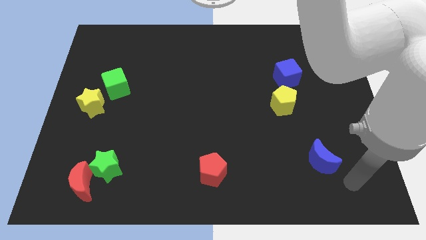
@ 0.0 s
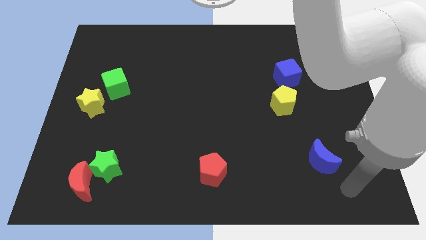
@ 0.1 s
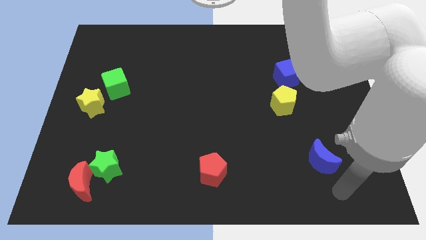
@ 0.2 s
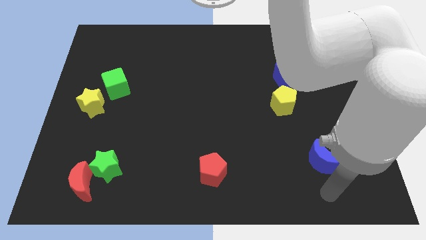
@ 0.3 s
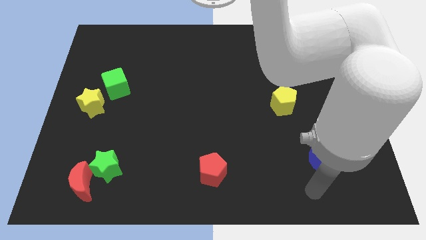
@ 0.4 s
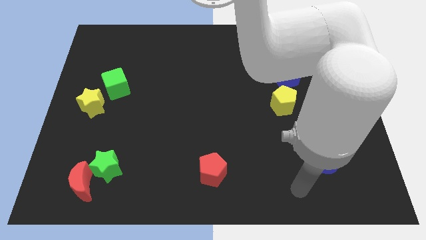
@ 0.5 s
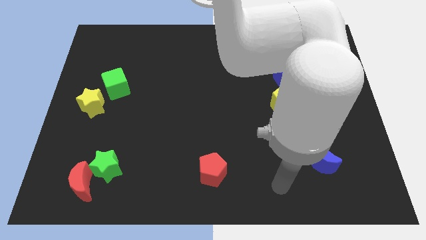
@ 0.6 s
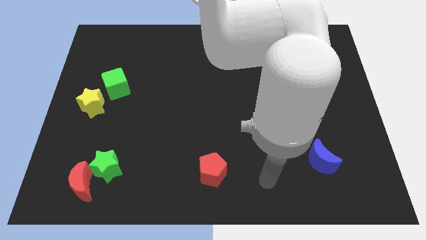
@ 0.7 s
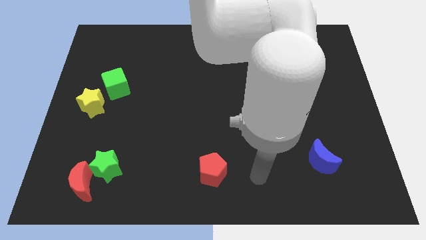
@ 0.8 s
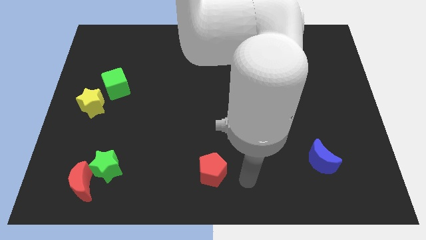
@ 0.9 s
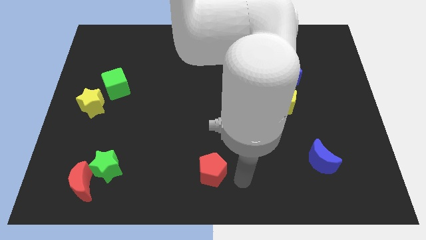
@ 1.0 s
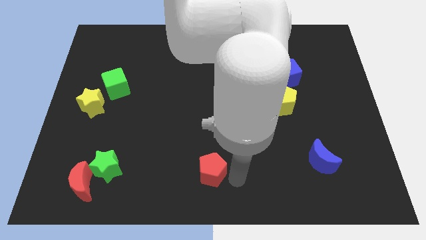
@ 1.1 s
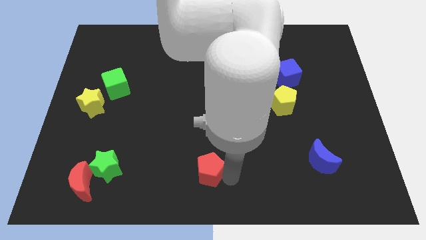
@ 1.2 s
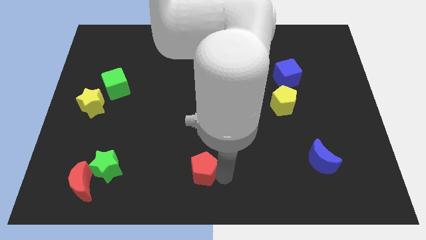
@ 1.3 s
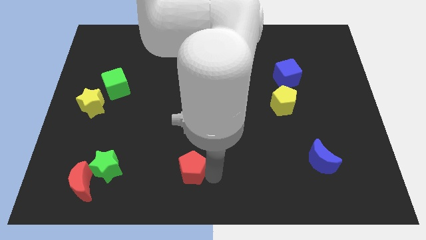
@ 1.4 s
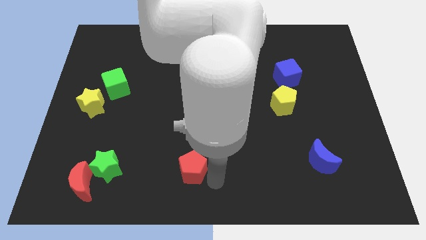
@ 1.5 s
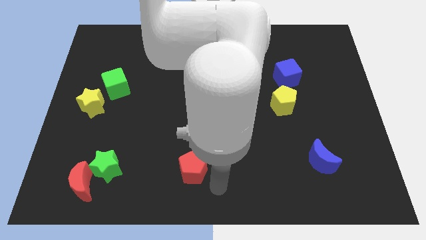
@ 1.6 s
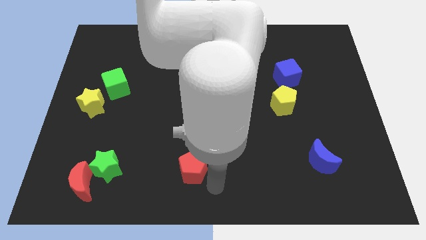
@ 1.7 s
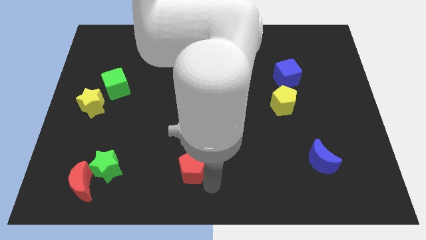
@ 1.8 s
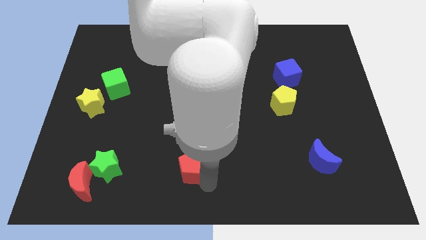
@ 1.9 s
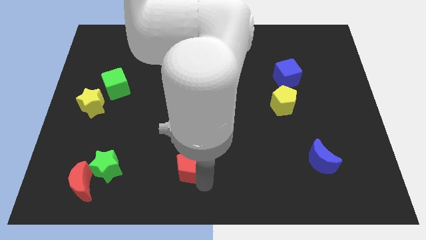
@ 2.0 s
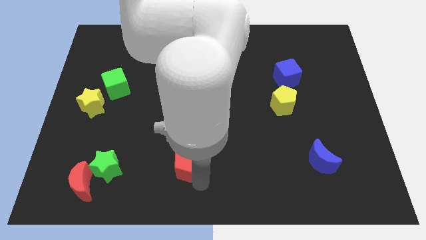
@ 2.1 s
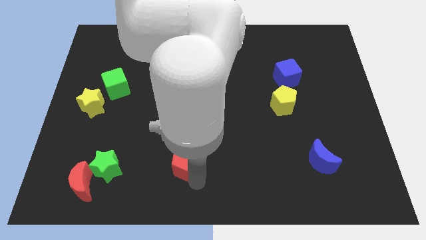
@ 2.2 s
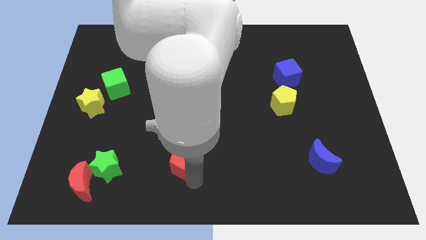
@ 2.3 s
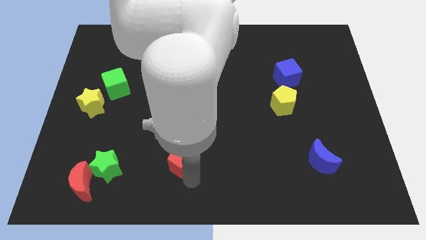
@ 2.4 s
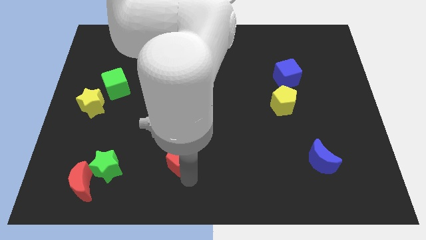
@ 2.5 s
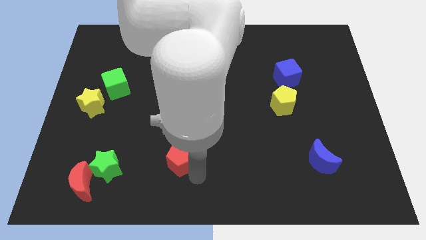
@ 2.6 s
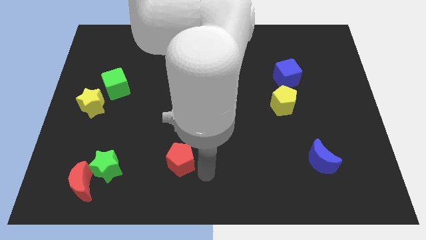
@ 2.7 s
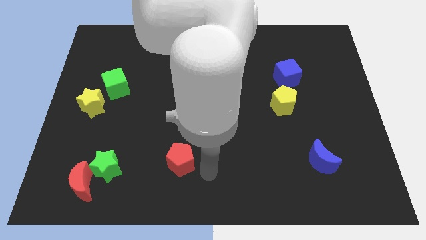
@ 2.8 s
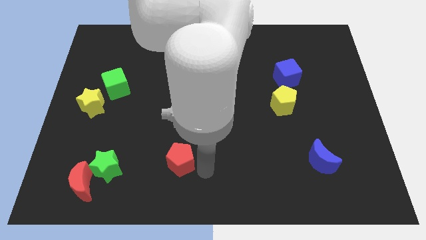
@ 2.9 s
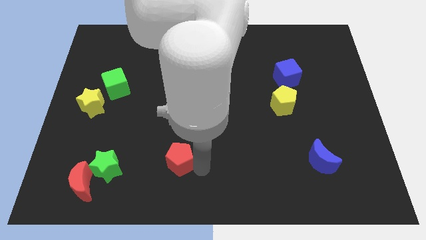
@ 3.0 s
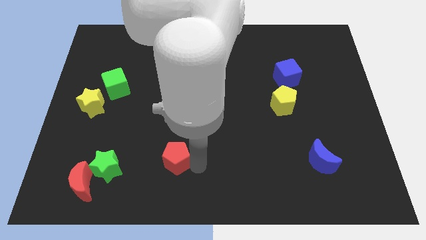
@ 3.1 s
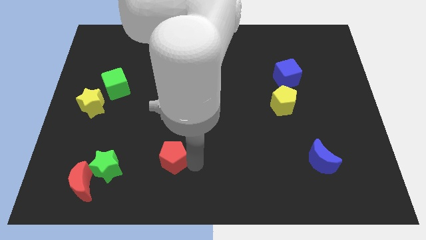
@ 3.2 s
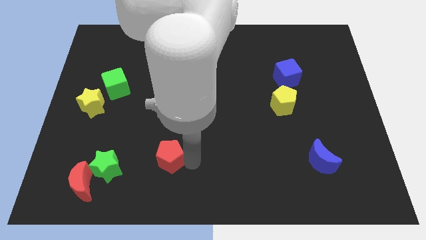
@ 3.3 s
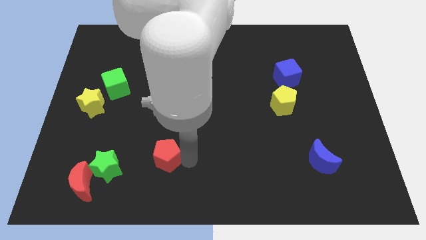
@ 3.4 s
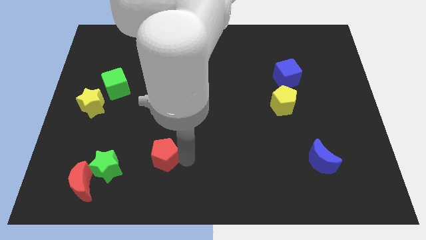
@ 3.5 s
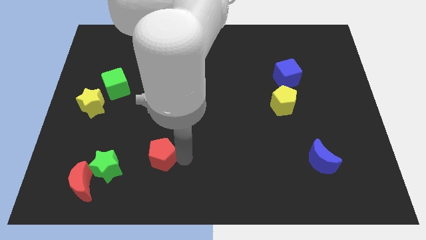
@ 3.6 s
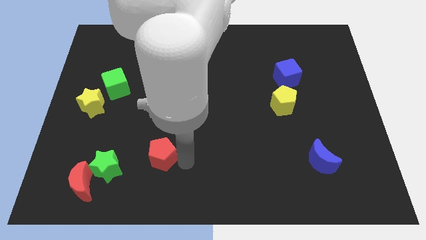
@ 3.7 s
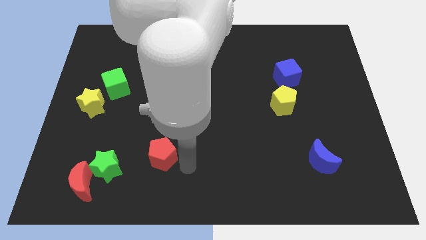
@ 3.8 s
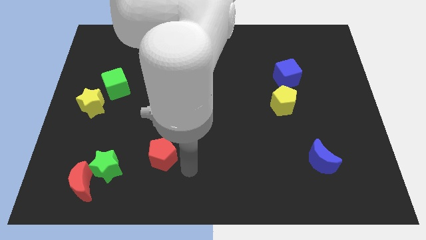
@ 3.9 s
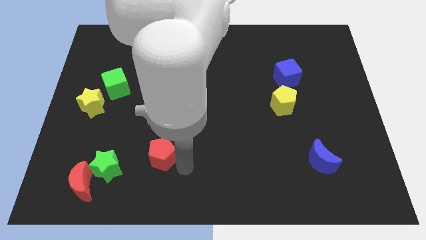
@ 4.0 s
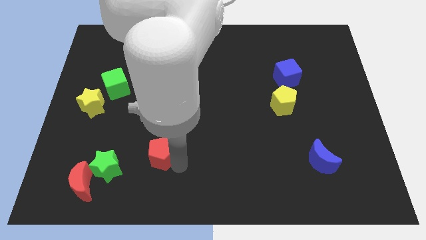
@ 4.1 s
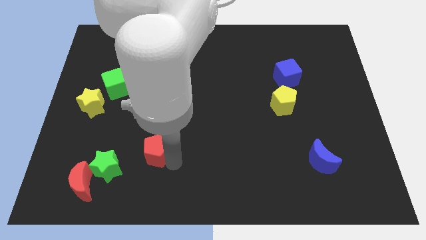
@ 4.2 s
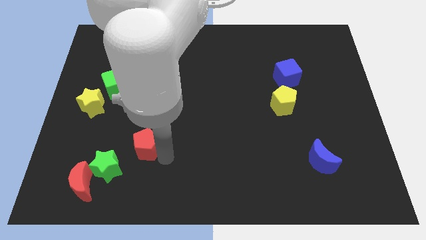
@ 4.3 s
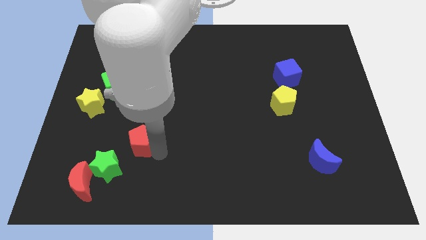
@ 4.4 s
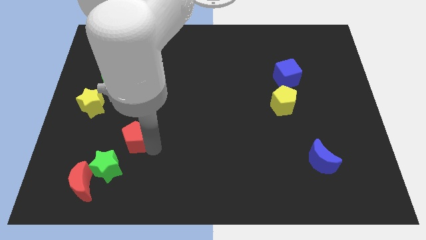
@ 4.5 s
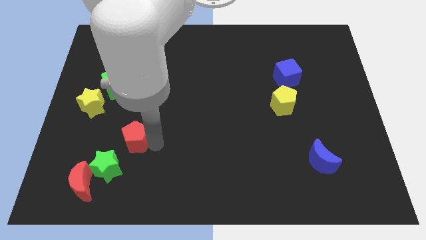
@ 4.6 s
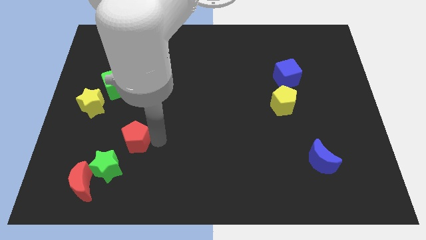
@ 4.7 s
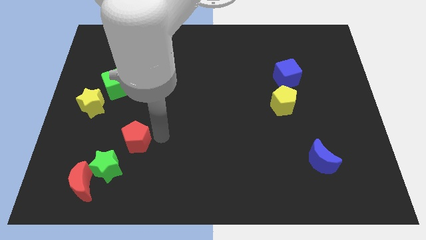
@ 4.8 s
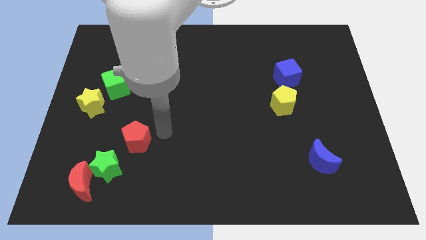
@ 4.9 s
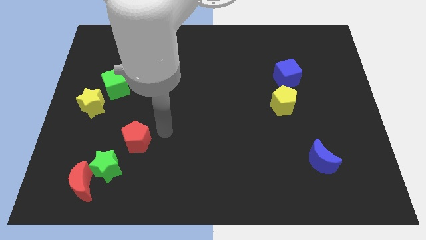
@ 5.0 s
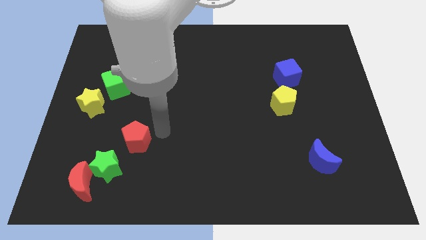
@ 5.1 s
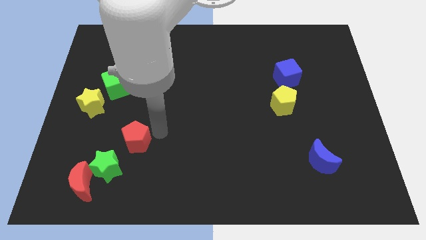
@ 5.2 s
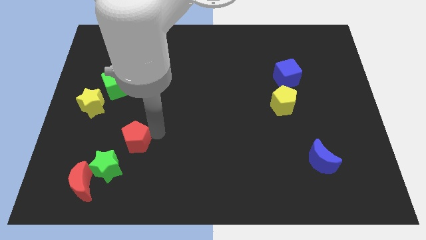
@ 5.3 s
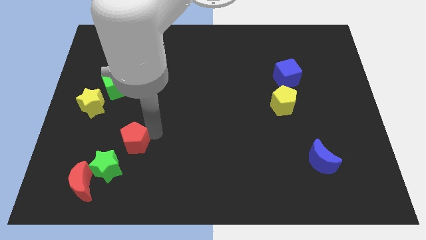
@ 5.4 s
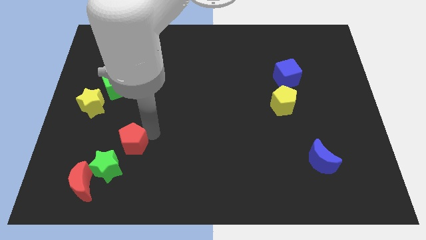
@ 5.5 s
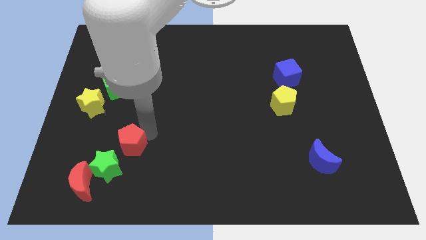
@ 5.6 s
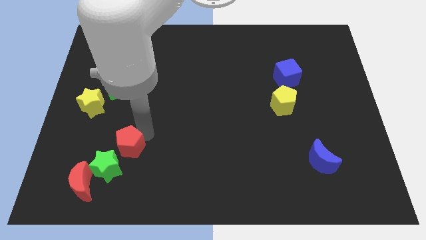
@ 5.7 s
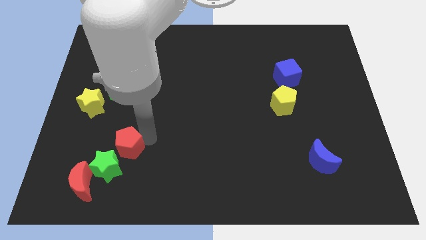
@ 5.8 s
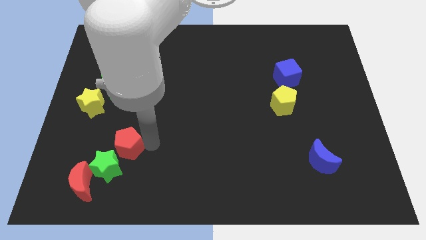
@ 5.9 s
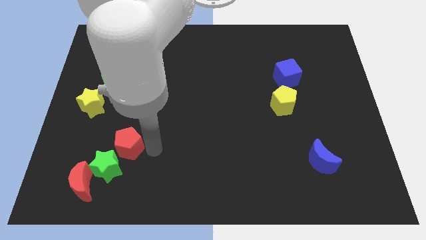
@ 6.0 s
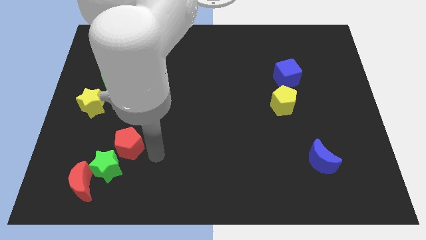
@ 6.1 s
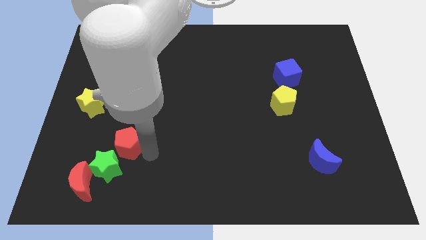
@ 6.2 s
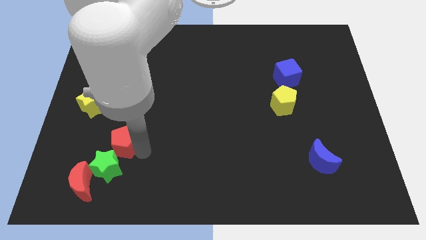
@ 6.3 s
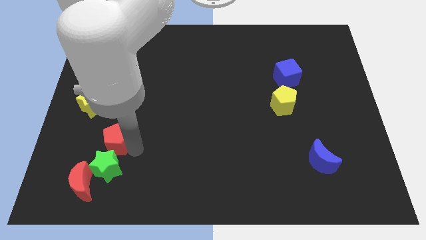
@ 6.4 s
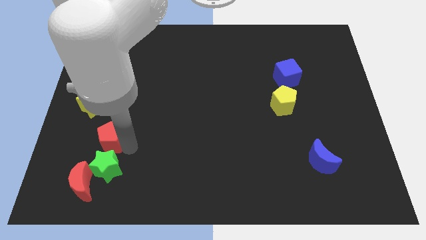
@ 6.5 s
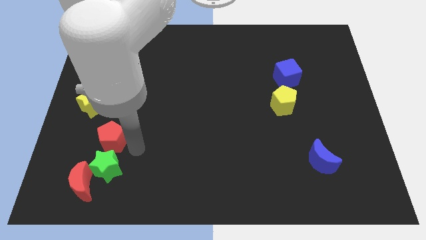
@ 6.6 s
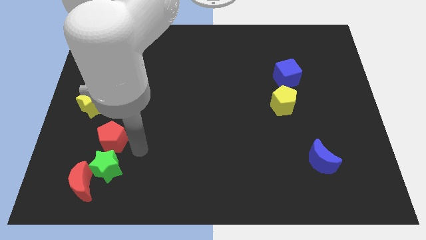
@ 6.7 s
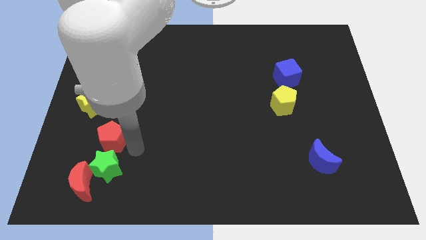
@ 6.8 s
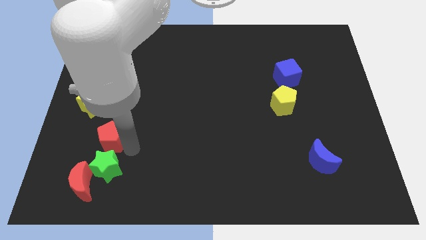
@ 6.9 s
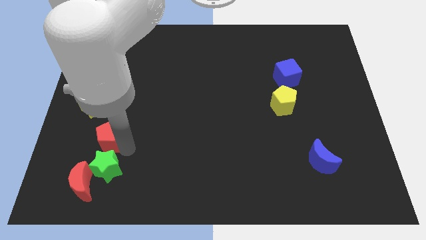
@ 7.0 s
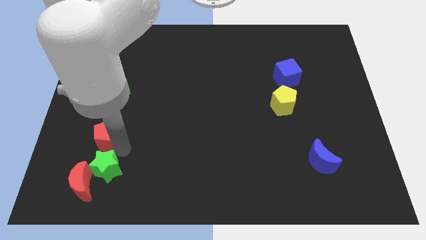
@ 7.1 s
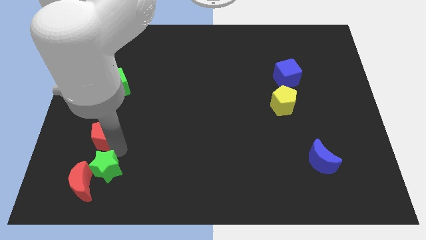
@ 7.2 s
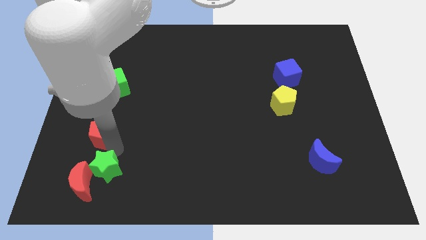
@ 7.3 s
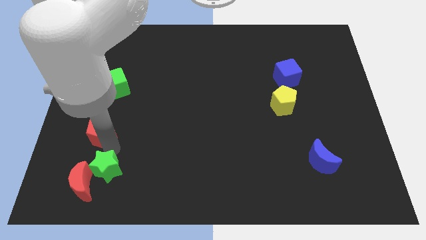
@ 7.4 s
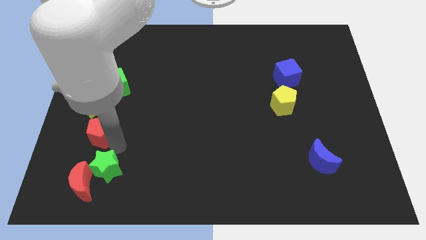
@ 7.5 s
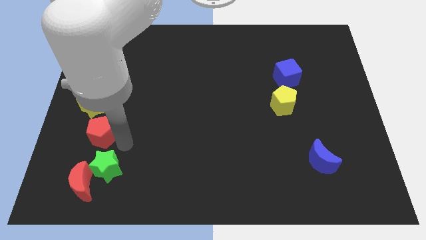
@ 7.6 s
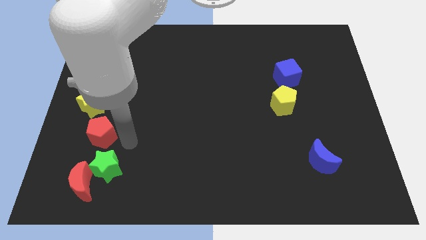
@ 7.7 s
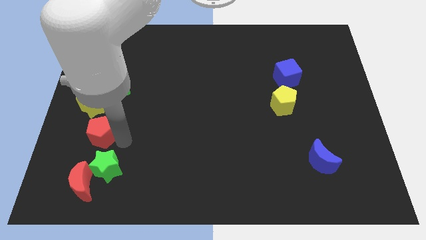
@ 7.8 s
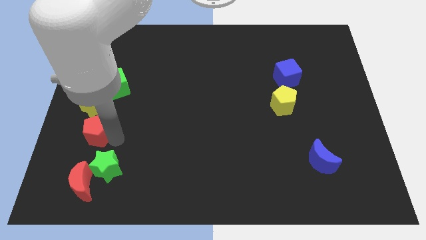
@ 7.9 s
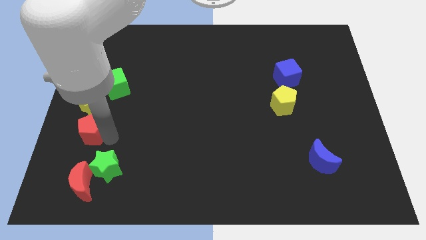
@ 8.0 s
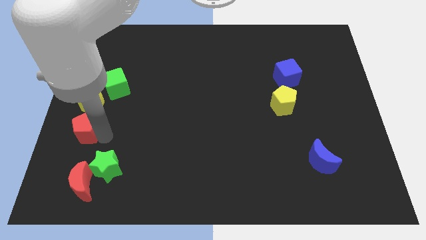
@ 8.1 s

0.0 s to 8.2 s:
move the red pentagon to the center left
